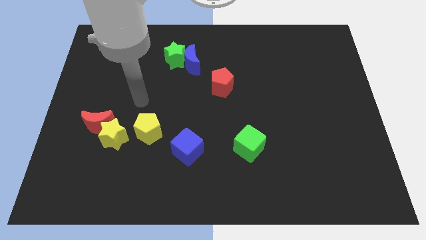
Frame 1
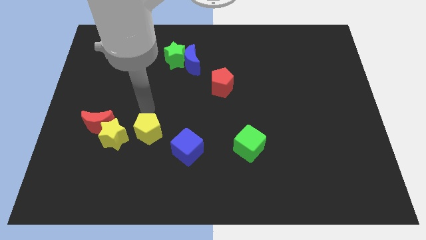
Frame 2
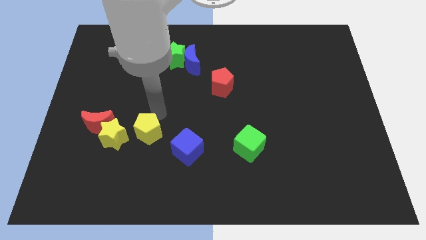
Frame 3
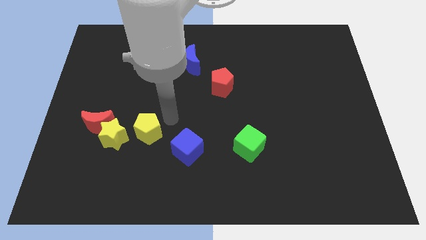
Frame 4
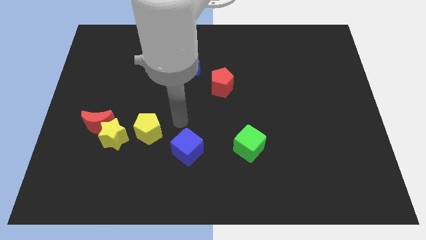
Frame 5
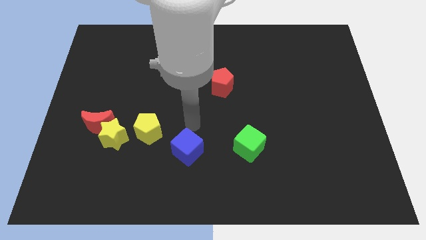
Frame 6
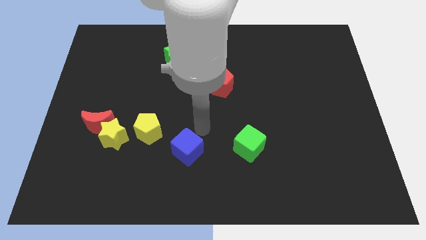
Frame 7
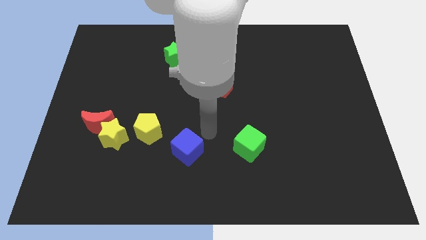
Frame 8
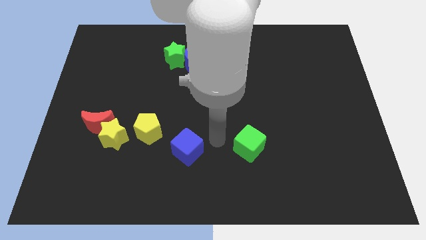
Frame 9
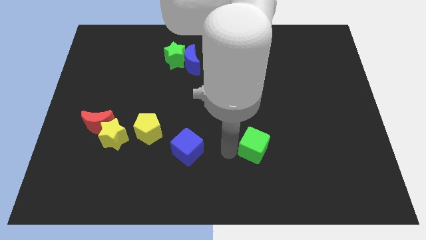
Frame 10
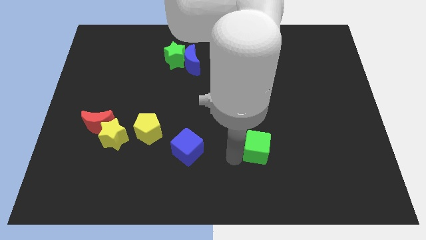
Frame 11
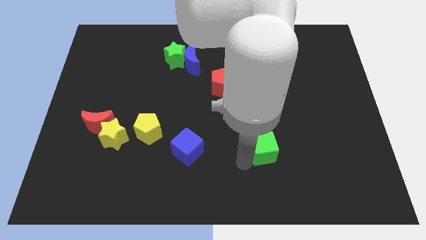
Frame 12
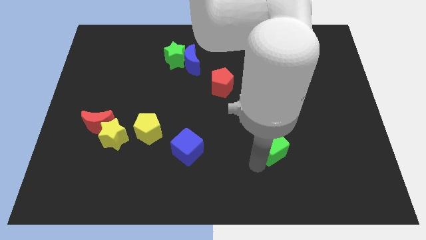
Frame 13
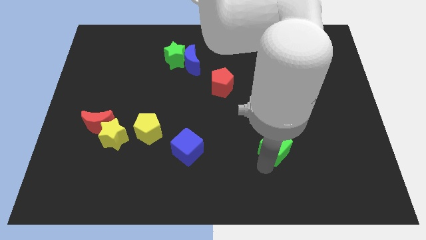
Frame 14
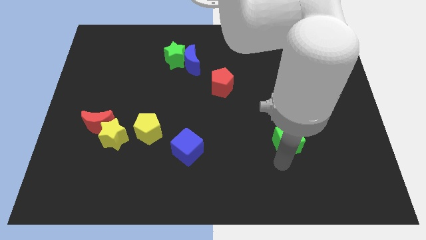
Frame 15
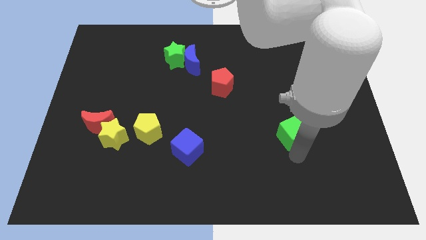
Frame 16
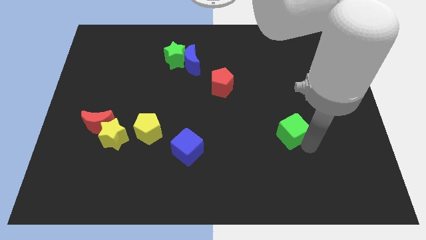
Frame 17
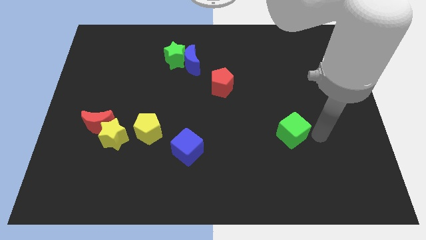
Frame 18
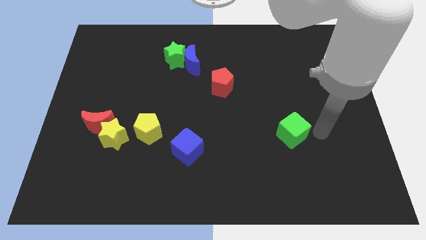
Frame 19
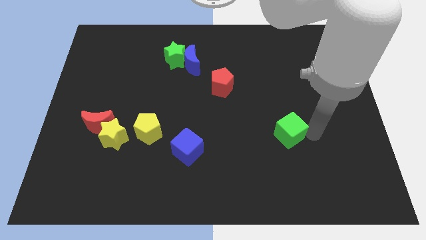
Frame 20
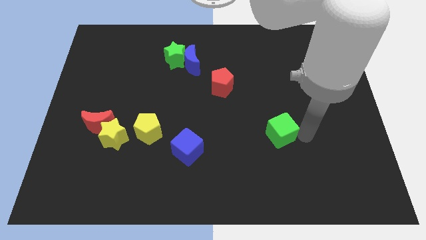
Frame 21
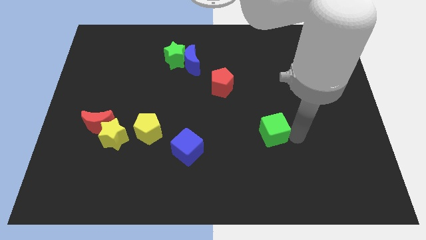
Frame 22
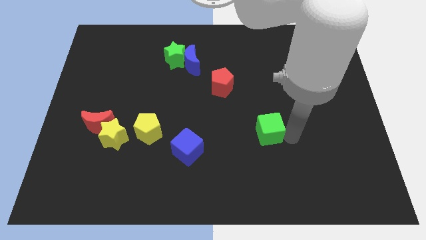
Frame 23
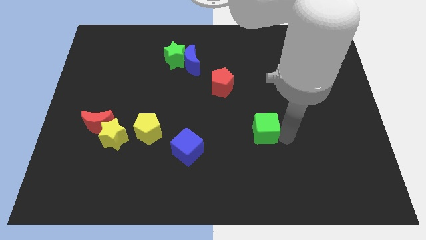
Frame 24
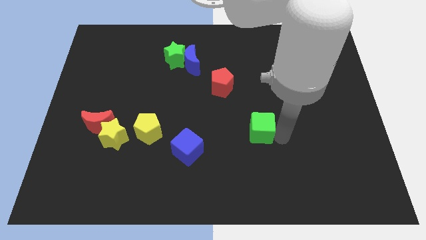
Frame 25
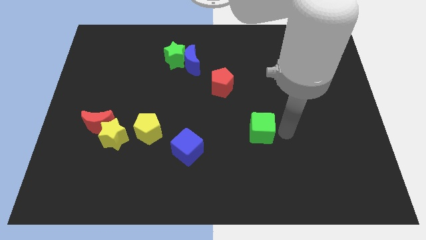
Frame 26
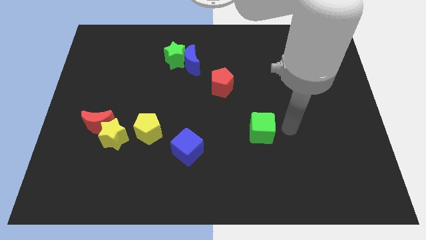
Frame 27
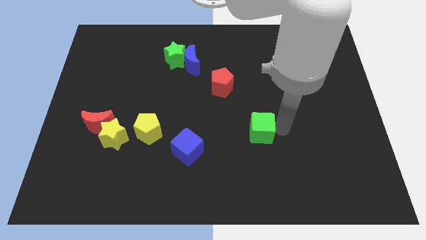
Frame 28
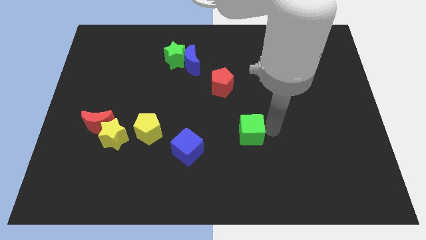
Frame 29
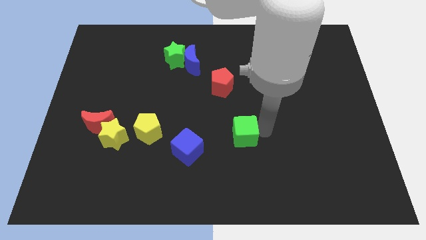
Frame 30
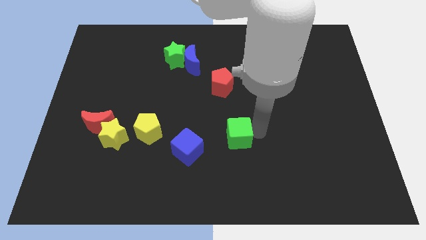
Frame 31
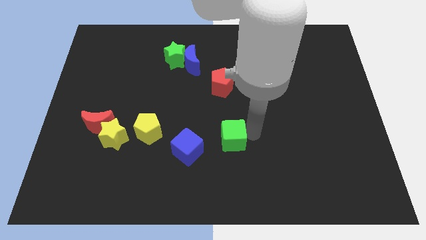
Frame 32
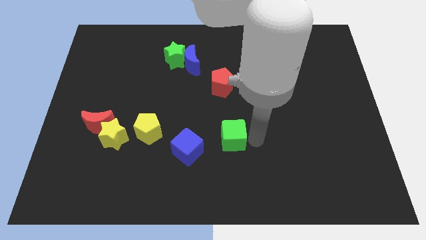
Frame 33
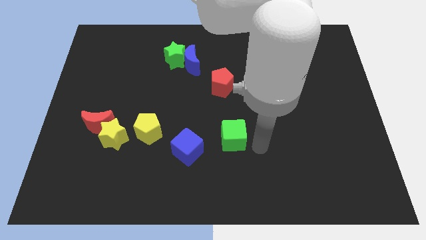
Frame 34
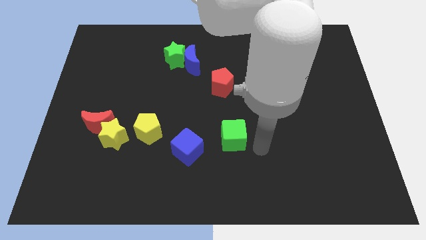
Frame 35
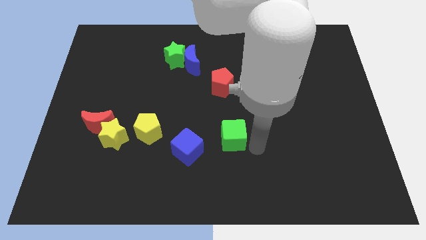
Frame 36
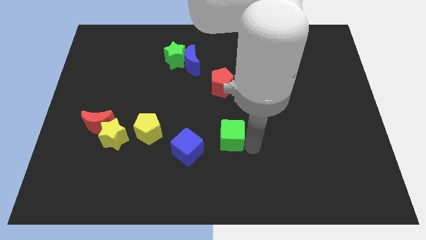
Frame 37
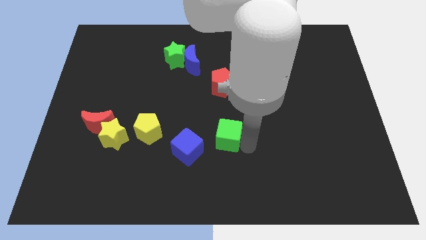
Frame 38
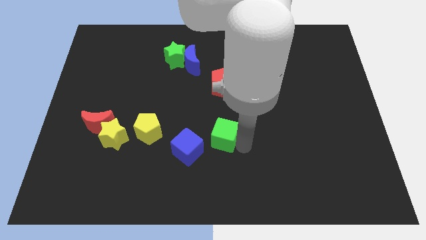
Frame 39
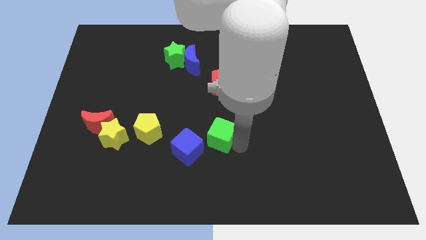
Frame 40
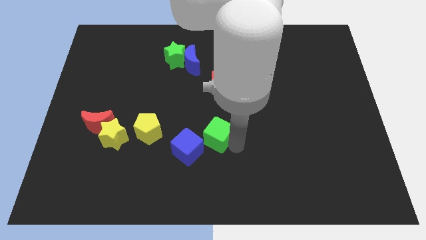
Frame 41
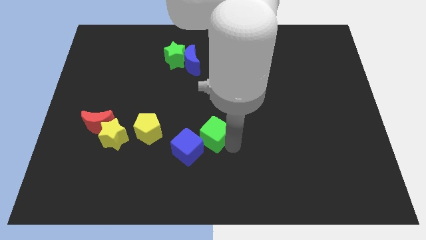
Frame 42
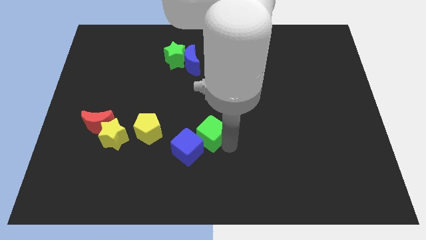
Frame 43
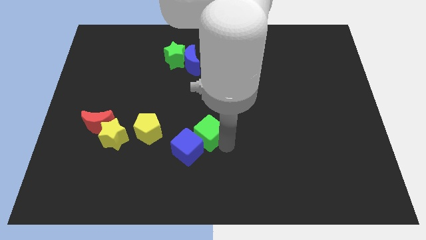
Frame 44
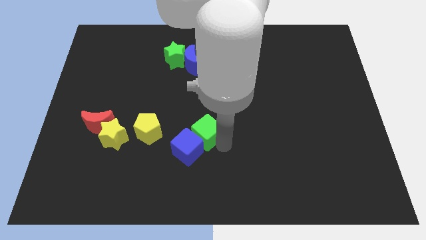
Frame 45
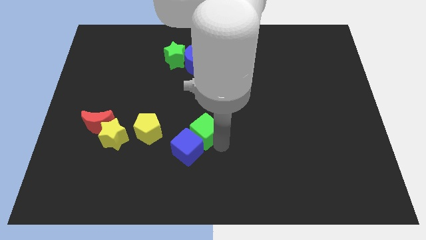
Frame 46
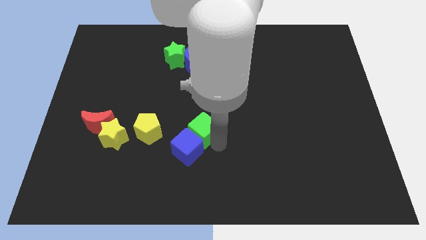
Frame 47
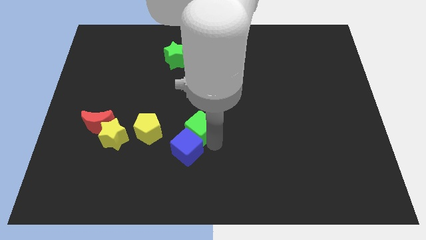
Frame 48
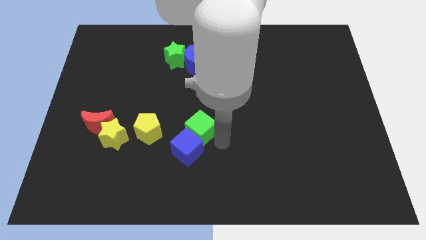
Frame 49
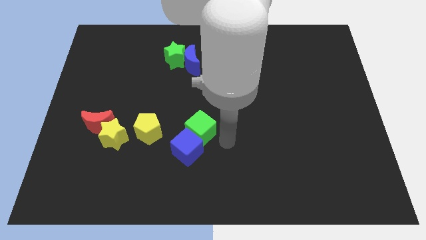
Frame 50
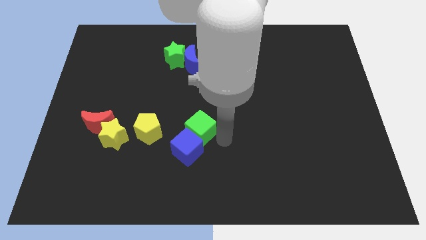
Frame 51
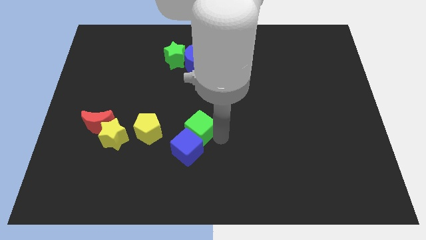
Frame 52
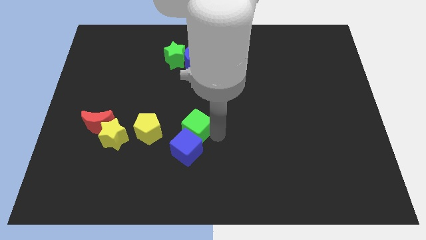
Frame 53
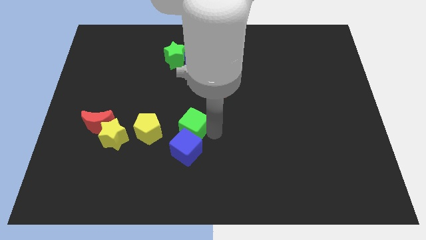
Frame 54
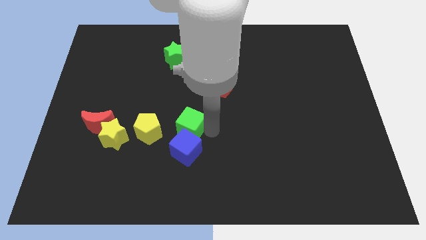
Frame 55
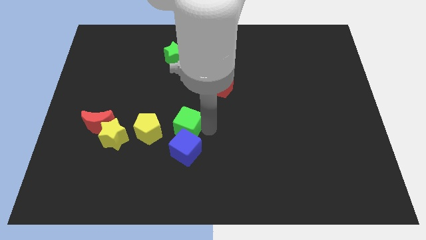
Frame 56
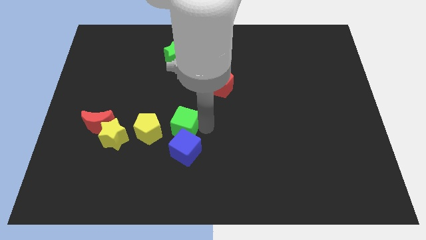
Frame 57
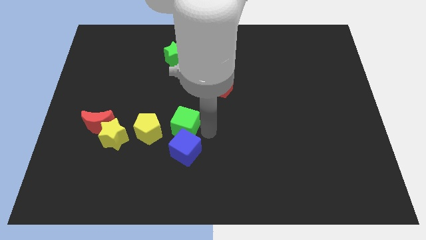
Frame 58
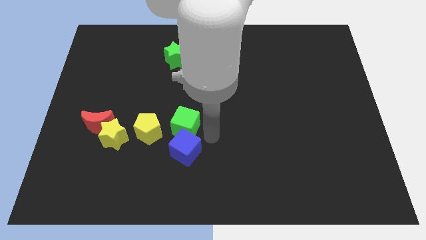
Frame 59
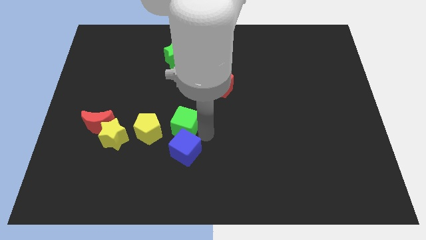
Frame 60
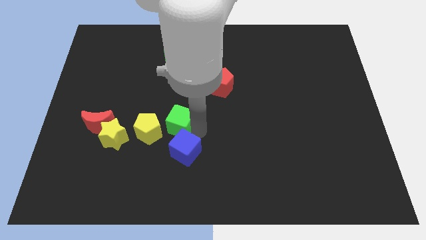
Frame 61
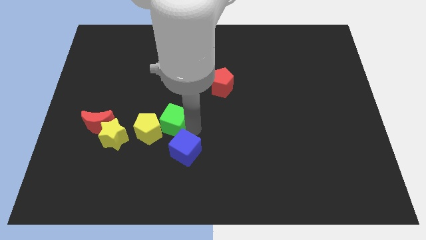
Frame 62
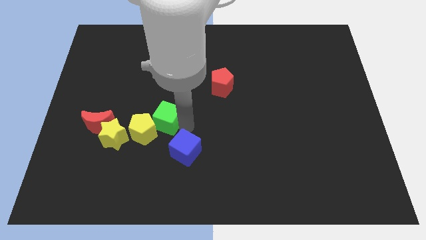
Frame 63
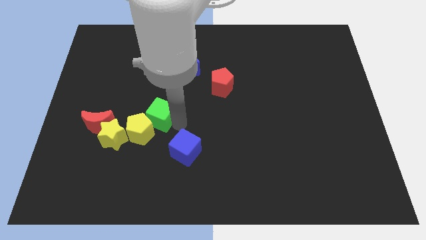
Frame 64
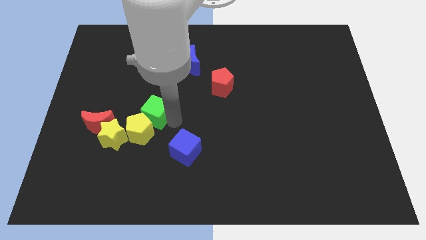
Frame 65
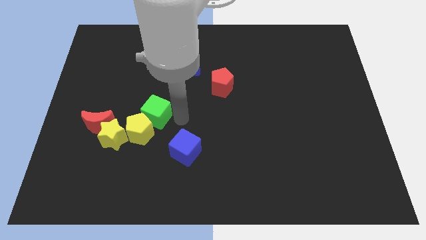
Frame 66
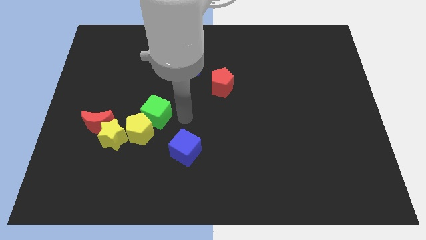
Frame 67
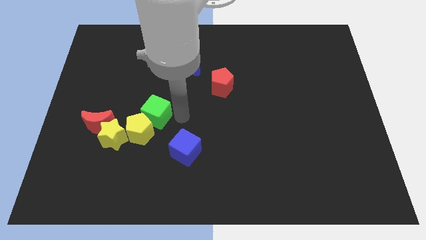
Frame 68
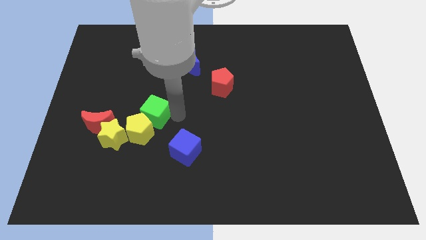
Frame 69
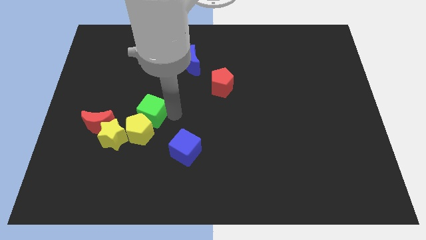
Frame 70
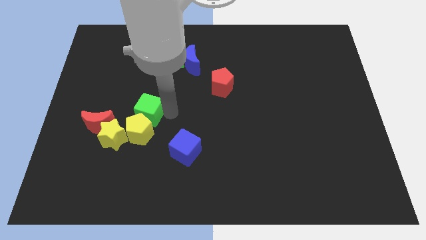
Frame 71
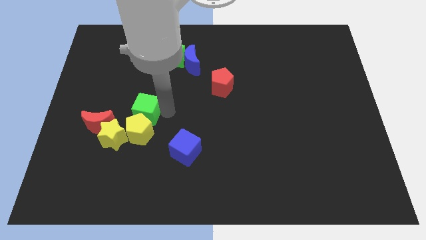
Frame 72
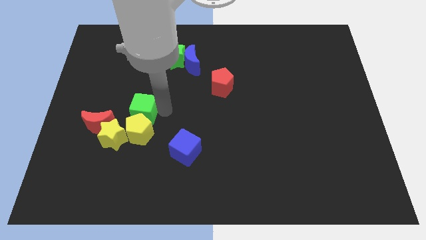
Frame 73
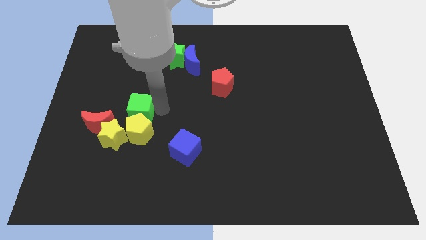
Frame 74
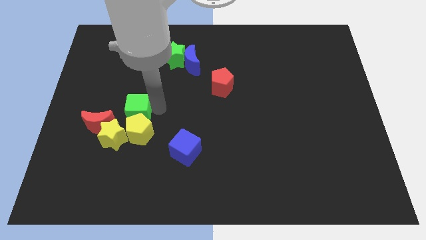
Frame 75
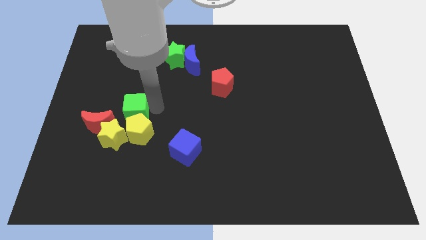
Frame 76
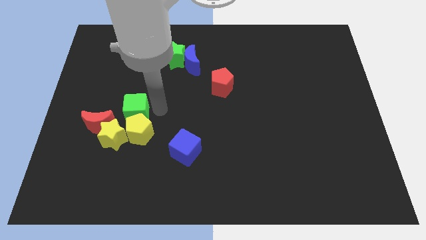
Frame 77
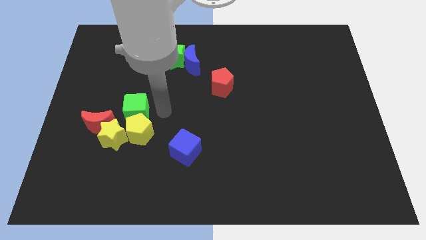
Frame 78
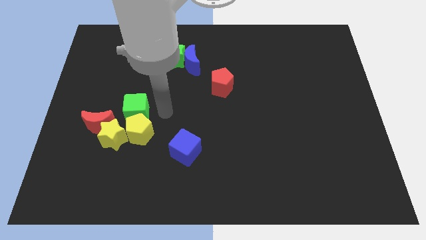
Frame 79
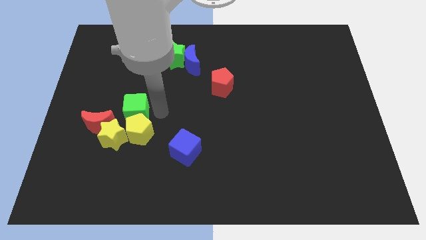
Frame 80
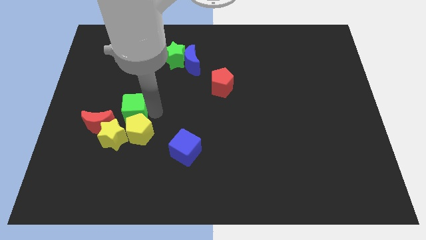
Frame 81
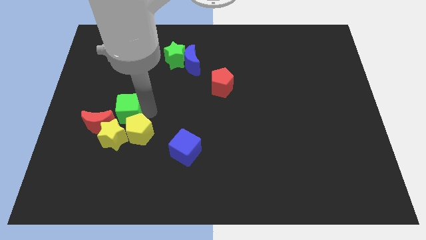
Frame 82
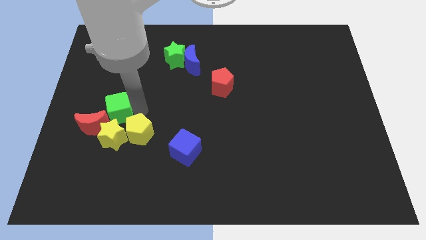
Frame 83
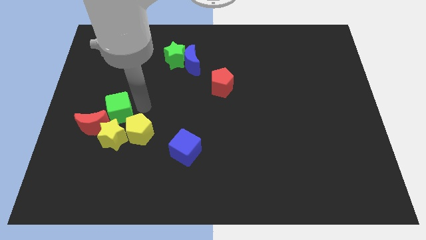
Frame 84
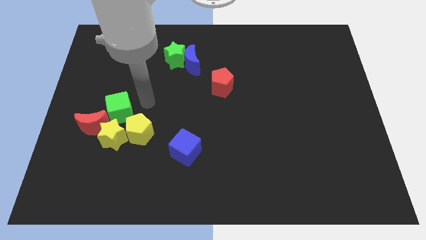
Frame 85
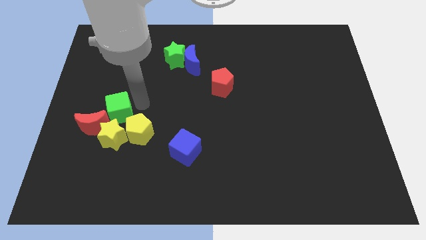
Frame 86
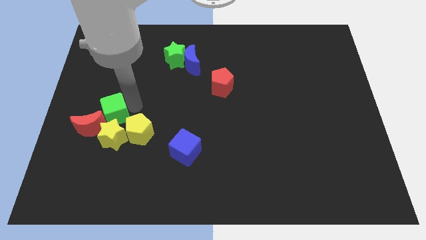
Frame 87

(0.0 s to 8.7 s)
put the green cube to the top left of the yellow star
